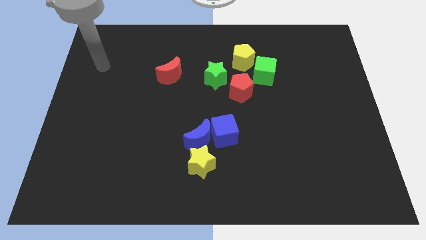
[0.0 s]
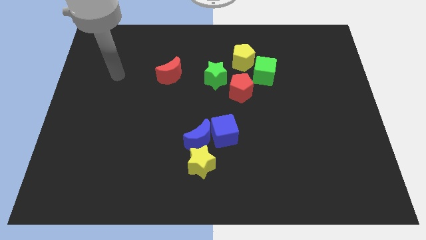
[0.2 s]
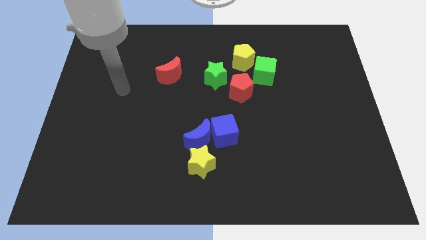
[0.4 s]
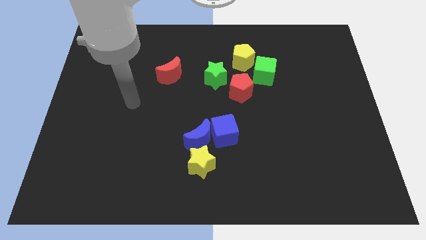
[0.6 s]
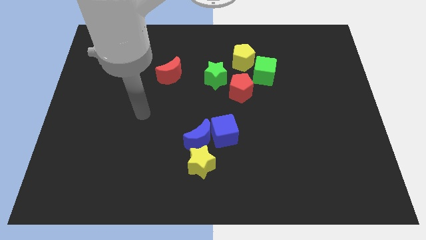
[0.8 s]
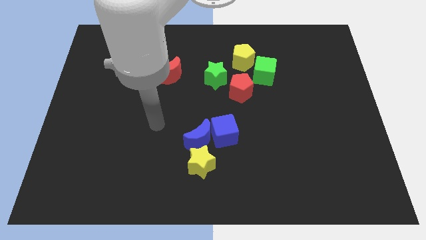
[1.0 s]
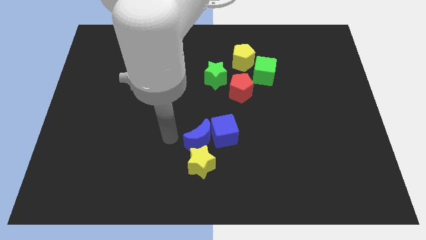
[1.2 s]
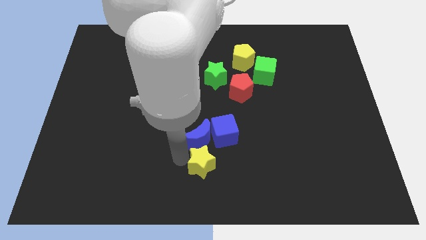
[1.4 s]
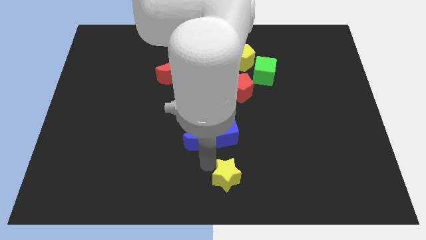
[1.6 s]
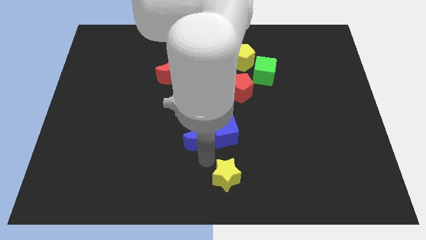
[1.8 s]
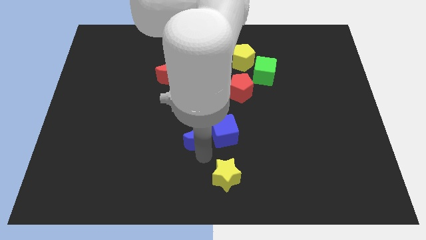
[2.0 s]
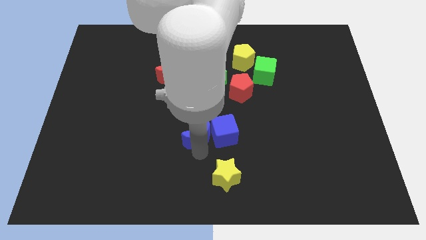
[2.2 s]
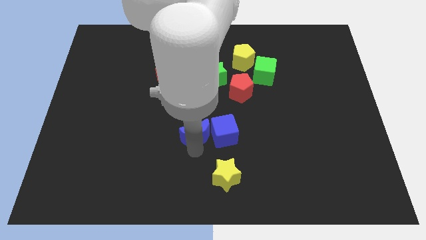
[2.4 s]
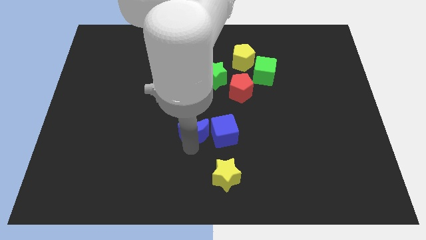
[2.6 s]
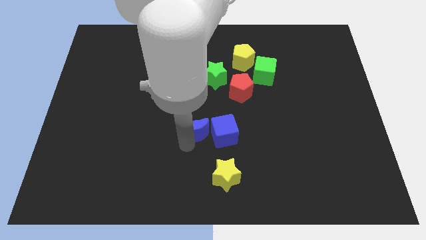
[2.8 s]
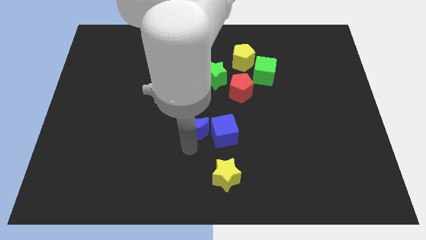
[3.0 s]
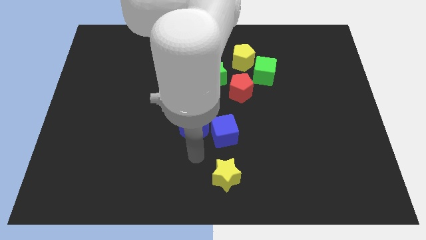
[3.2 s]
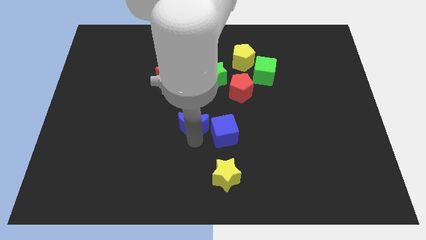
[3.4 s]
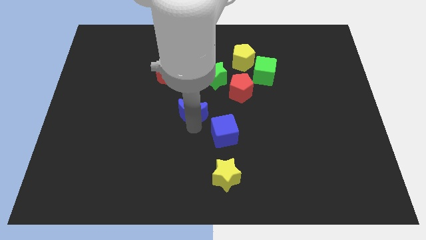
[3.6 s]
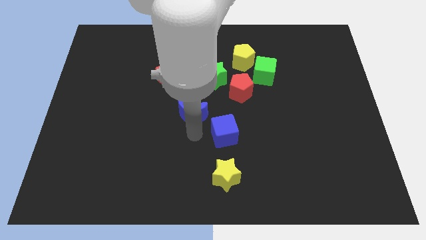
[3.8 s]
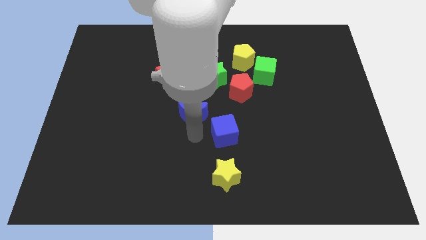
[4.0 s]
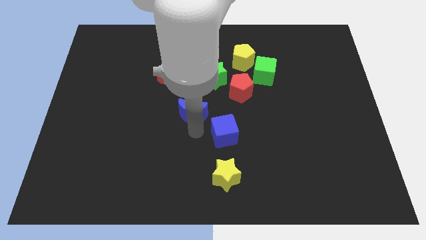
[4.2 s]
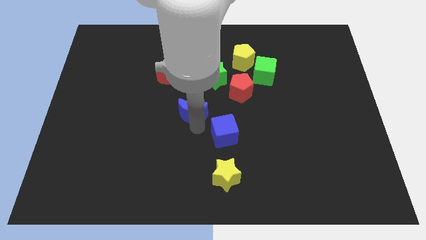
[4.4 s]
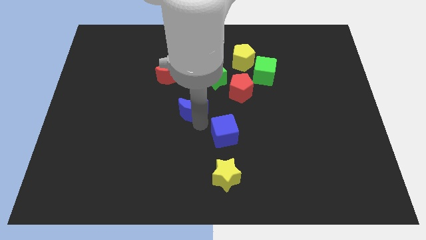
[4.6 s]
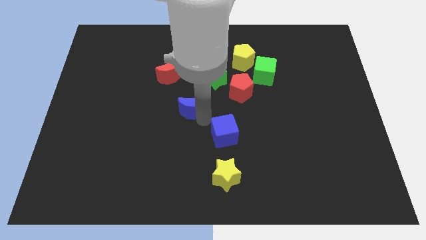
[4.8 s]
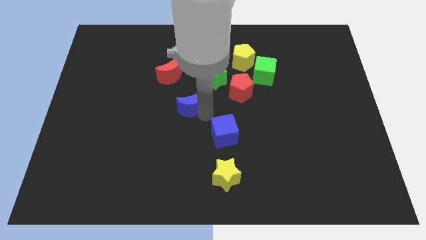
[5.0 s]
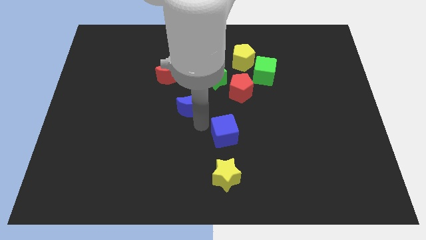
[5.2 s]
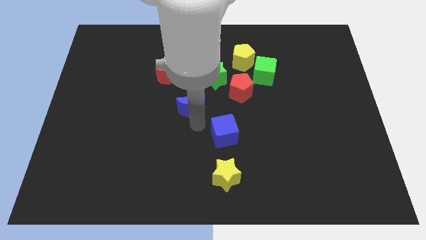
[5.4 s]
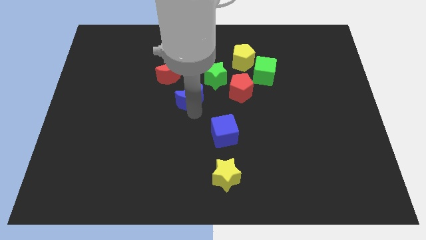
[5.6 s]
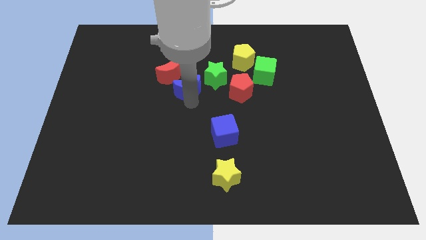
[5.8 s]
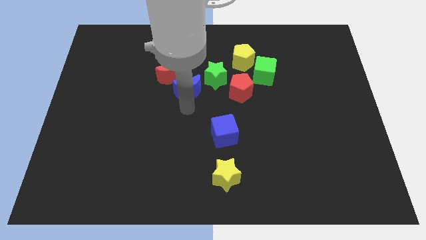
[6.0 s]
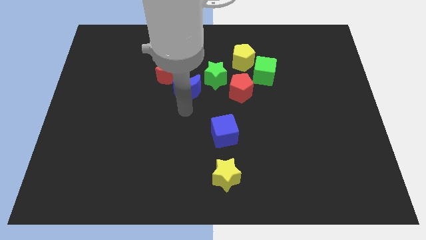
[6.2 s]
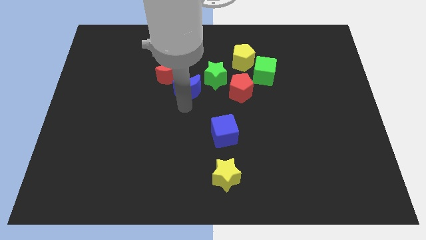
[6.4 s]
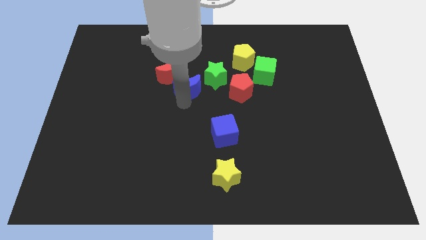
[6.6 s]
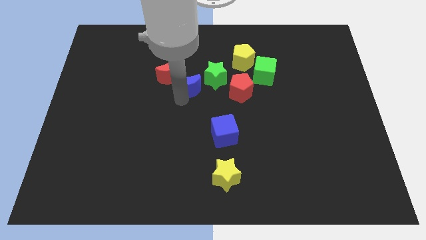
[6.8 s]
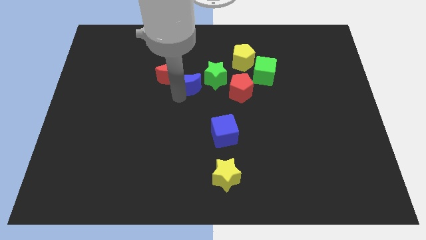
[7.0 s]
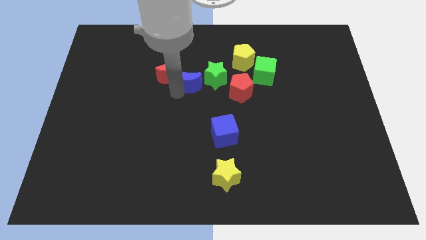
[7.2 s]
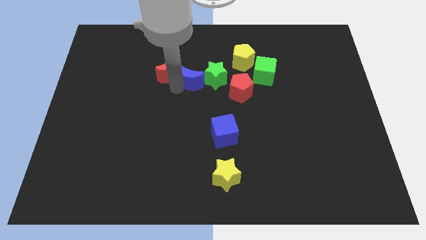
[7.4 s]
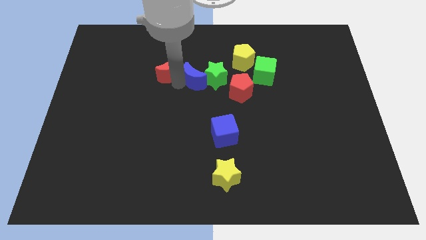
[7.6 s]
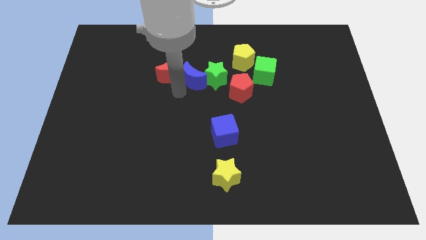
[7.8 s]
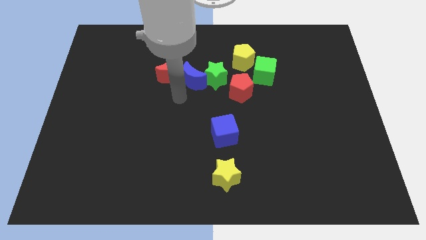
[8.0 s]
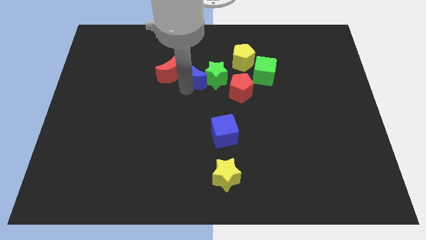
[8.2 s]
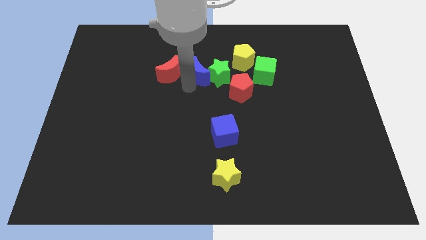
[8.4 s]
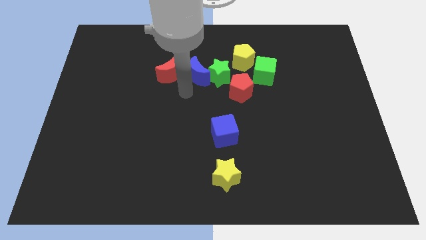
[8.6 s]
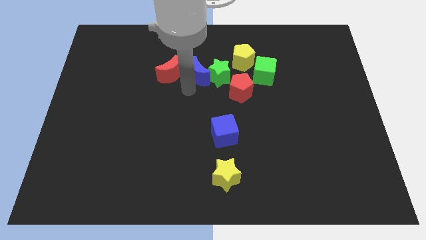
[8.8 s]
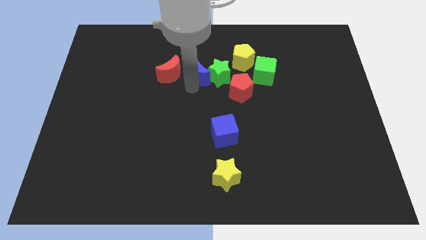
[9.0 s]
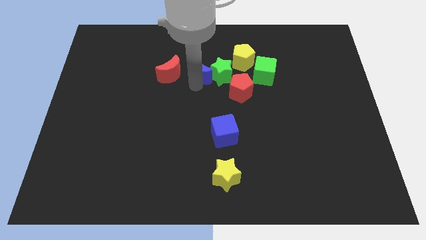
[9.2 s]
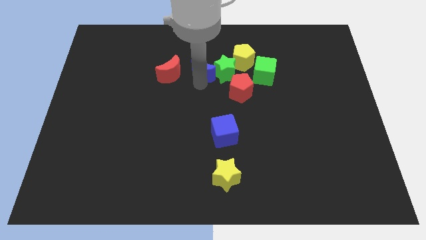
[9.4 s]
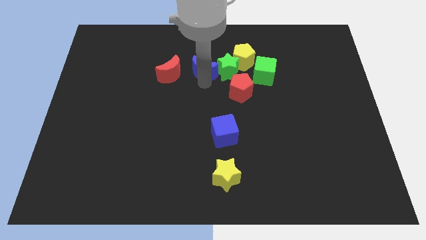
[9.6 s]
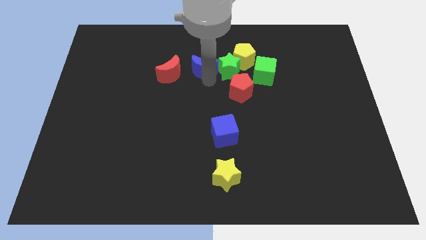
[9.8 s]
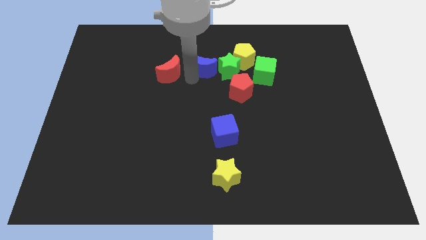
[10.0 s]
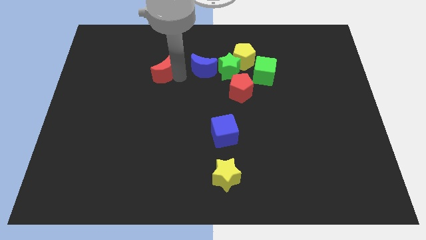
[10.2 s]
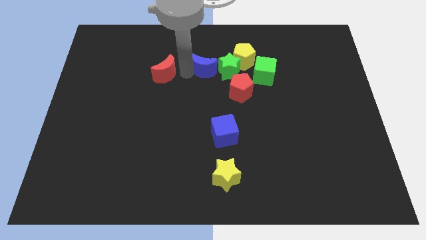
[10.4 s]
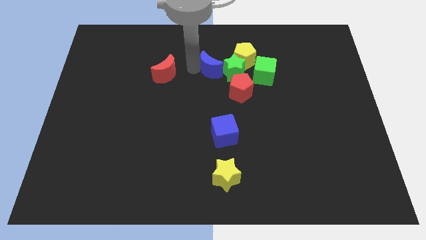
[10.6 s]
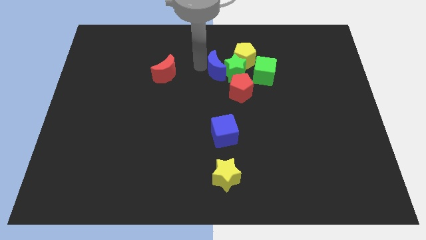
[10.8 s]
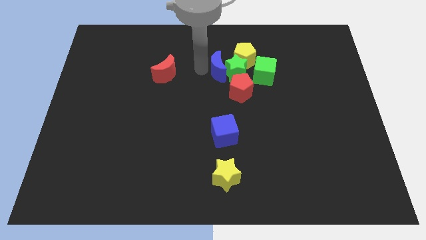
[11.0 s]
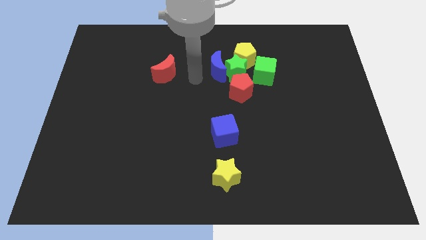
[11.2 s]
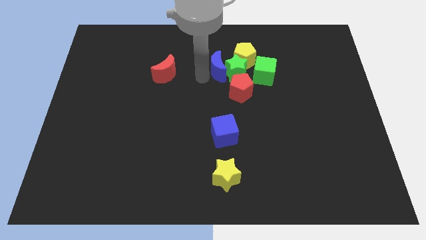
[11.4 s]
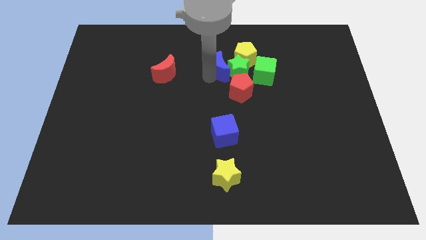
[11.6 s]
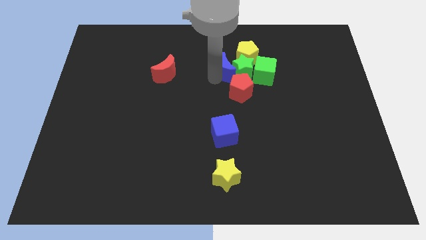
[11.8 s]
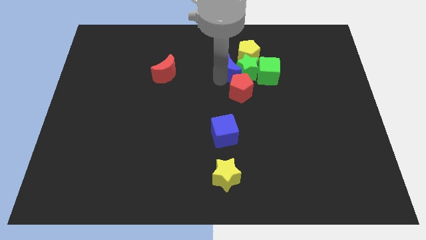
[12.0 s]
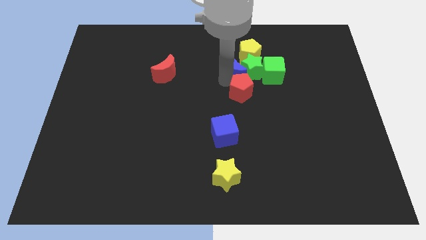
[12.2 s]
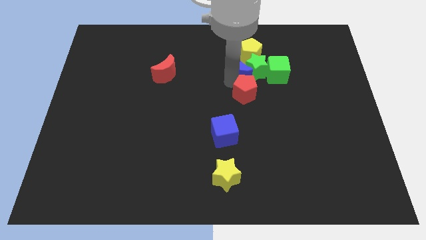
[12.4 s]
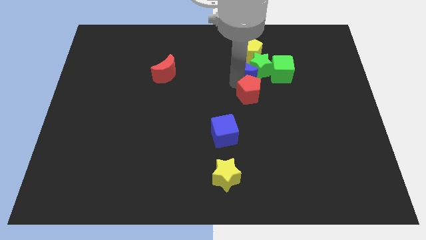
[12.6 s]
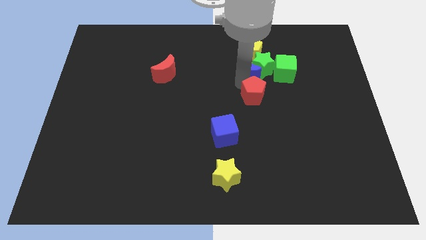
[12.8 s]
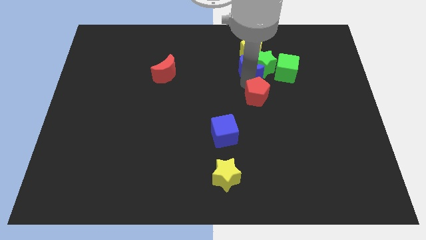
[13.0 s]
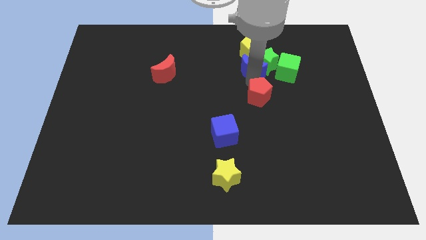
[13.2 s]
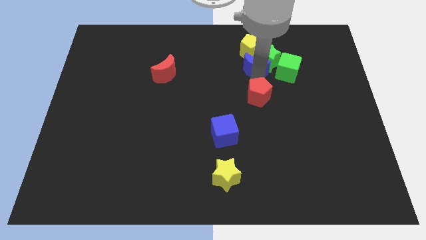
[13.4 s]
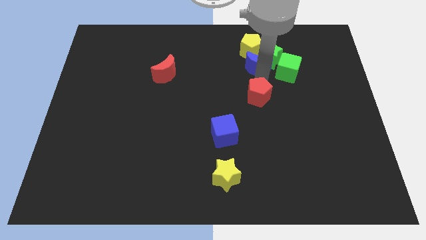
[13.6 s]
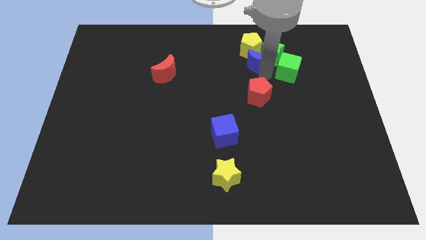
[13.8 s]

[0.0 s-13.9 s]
push the blue moon to the yellow pentagon
